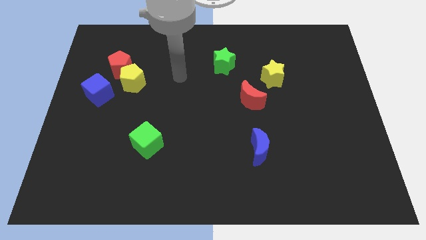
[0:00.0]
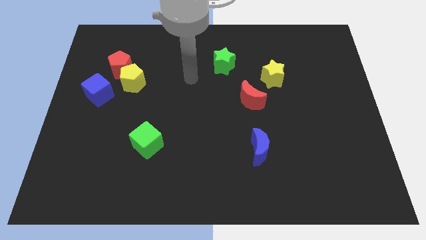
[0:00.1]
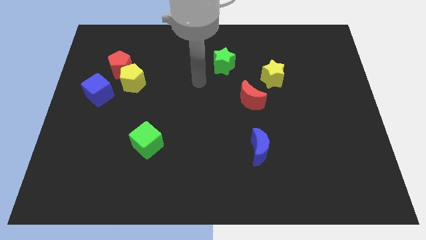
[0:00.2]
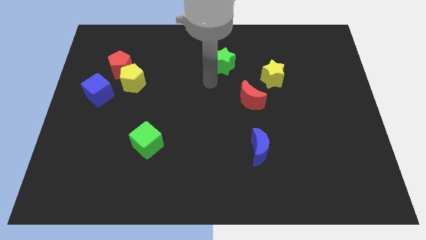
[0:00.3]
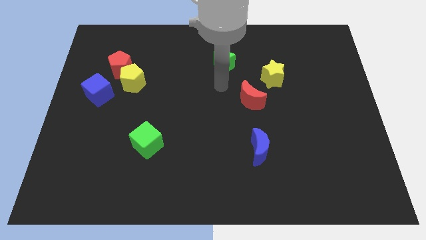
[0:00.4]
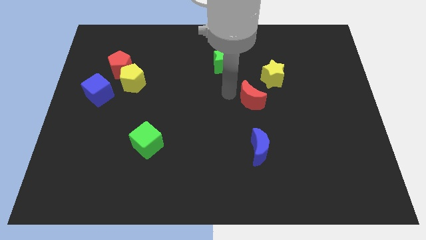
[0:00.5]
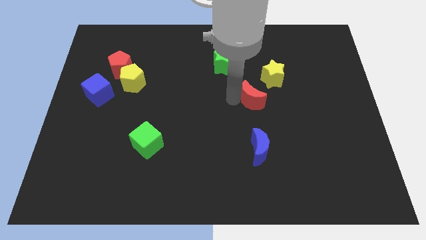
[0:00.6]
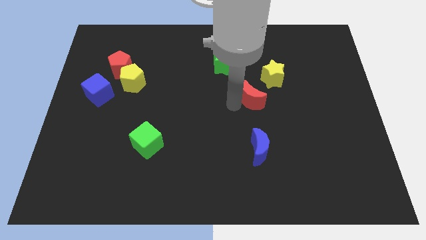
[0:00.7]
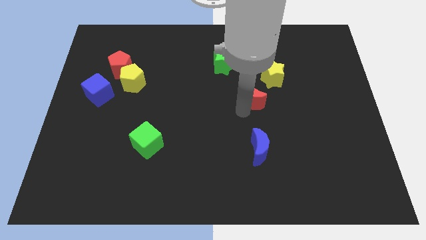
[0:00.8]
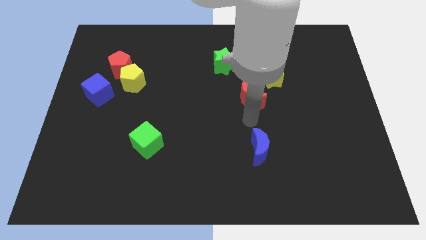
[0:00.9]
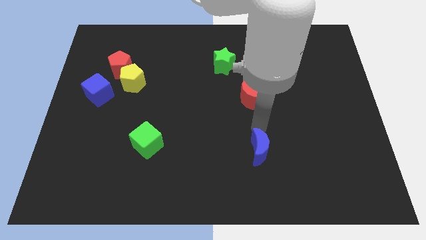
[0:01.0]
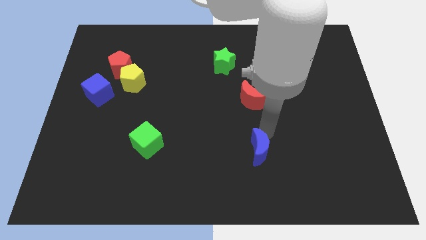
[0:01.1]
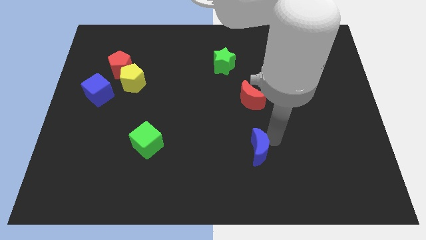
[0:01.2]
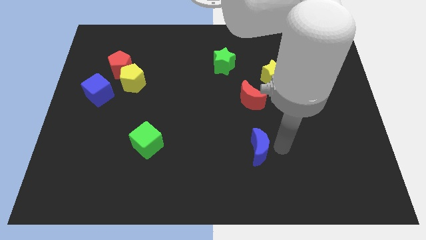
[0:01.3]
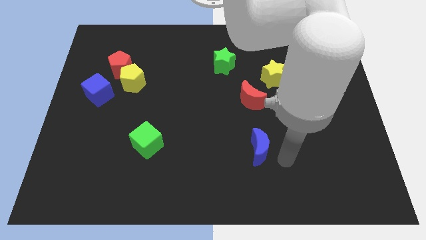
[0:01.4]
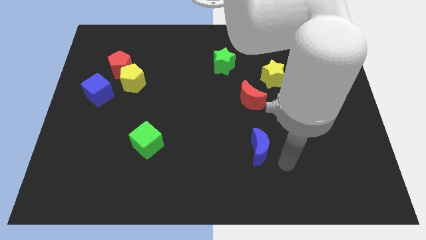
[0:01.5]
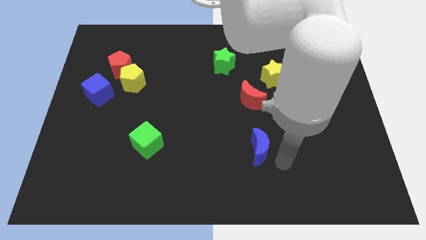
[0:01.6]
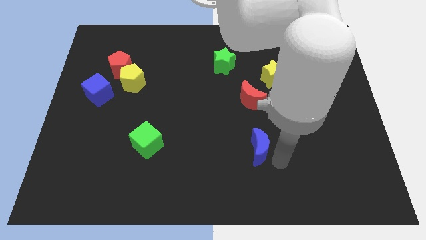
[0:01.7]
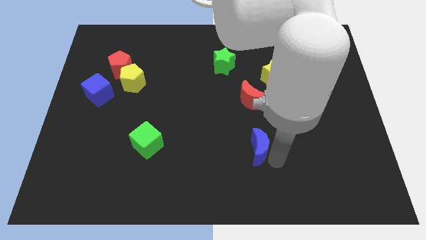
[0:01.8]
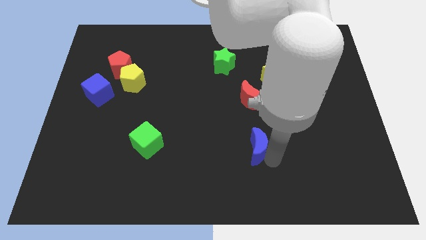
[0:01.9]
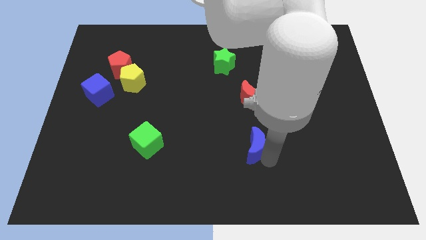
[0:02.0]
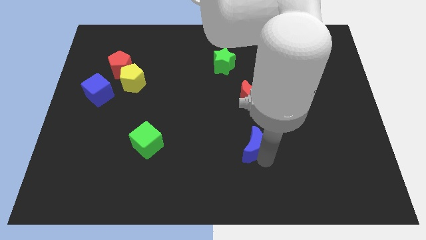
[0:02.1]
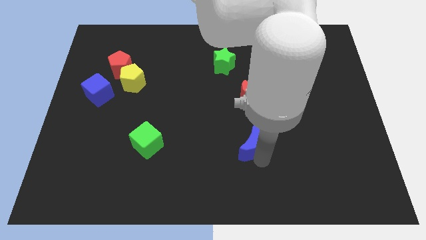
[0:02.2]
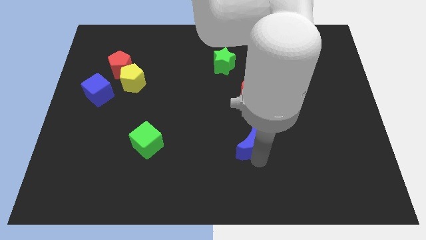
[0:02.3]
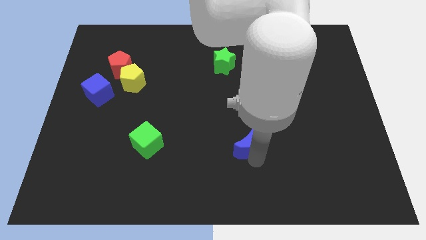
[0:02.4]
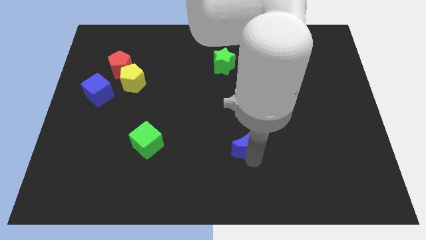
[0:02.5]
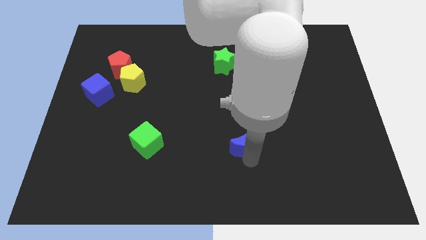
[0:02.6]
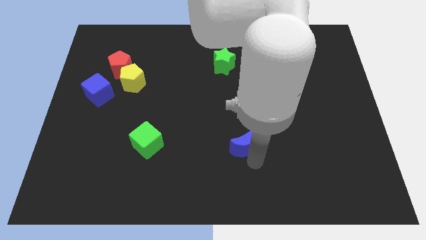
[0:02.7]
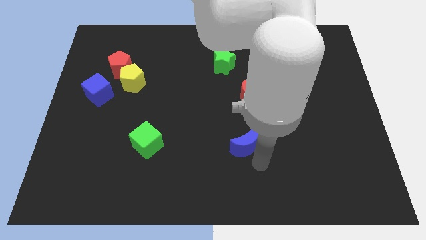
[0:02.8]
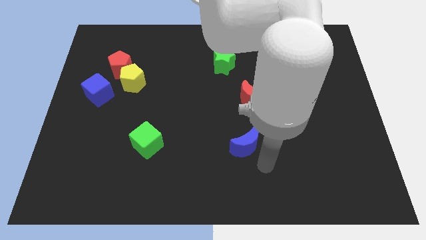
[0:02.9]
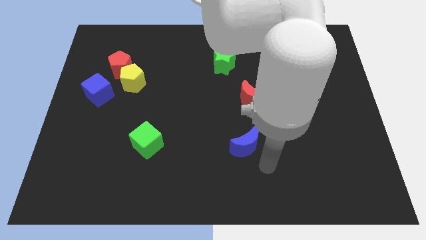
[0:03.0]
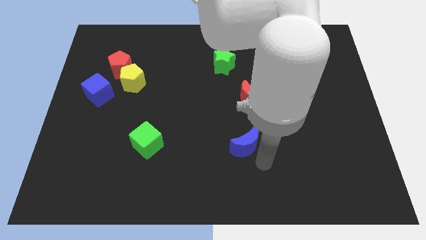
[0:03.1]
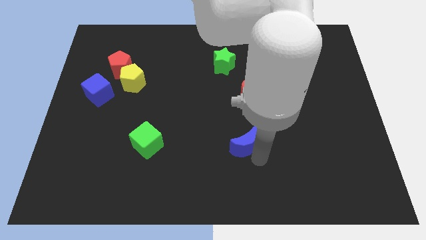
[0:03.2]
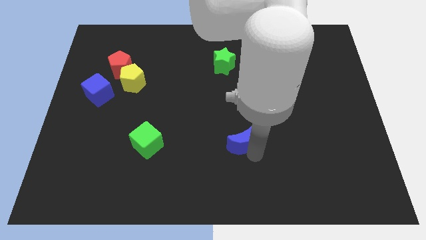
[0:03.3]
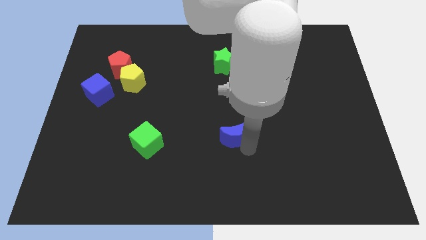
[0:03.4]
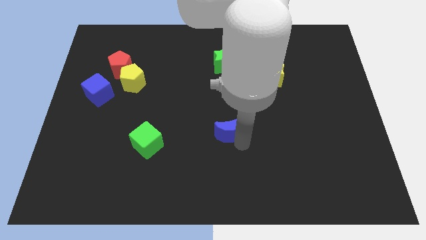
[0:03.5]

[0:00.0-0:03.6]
slide the blue moon slightly upwards and to the left diagonally

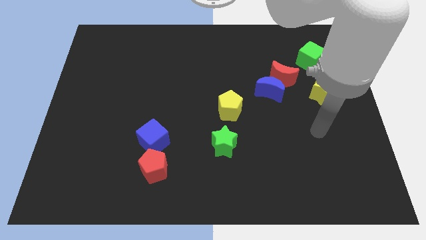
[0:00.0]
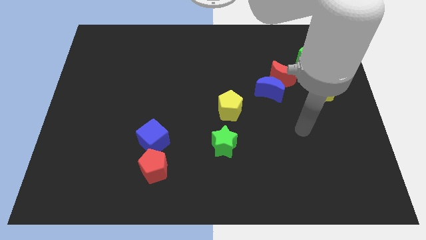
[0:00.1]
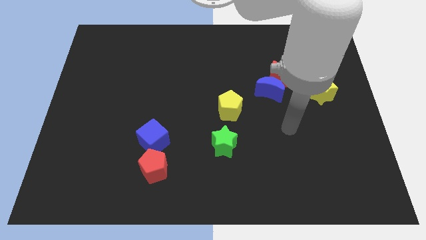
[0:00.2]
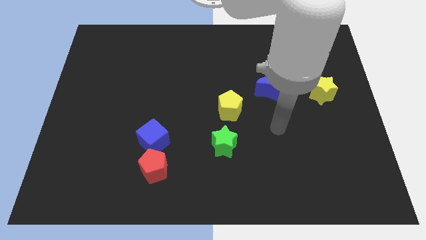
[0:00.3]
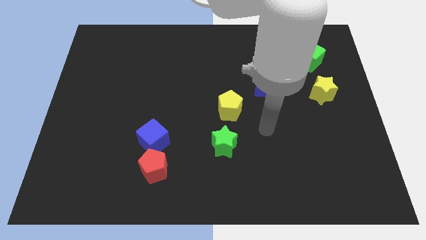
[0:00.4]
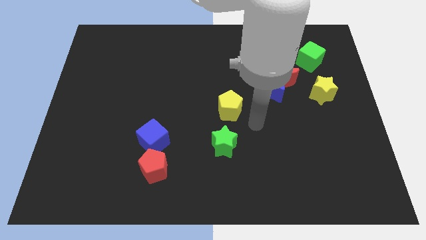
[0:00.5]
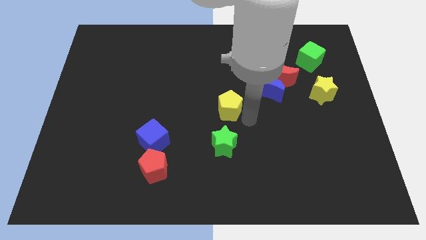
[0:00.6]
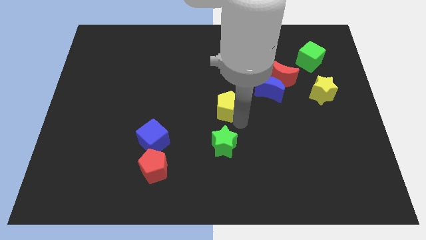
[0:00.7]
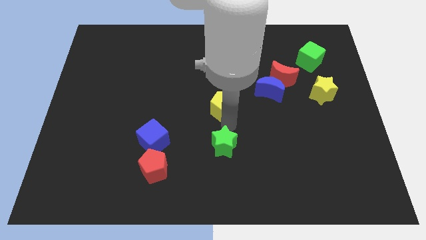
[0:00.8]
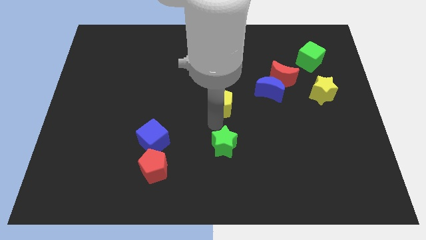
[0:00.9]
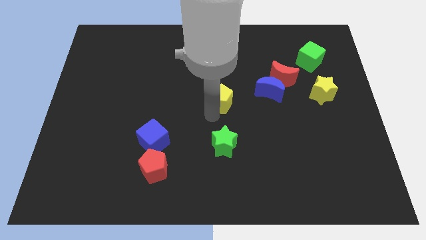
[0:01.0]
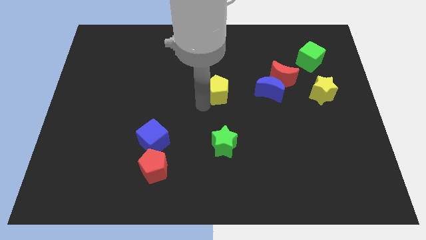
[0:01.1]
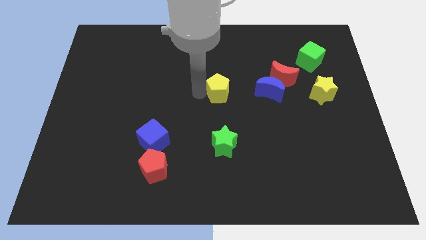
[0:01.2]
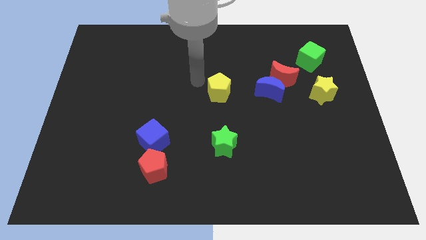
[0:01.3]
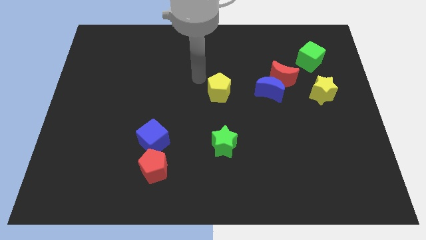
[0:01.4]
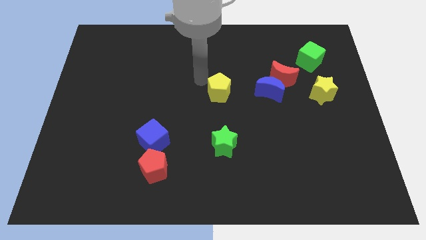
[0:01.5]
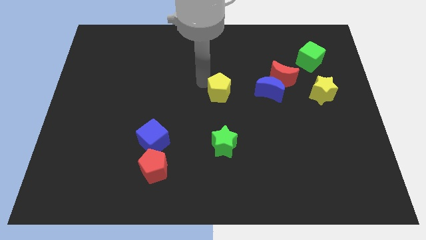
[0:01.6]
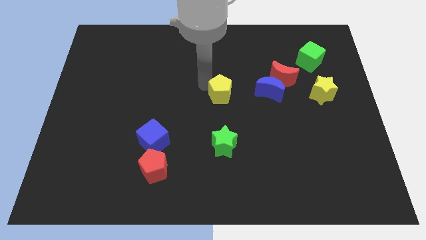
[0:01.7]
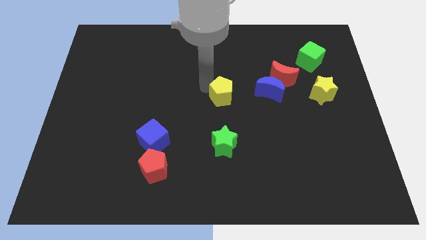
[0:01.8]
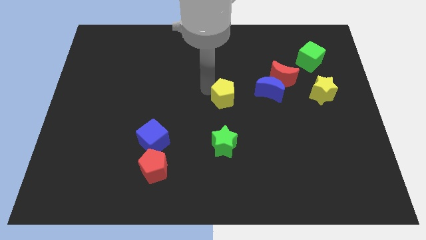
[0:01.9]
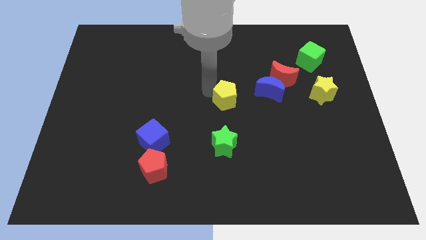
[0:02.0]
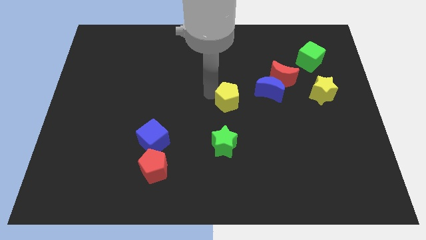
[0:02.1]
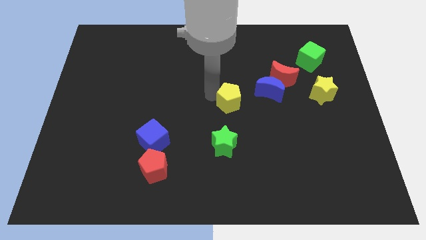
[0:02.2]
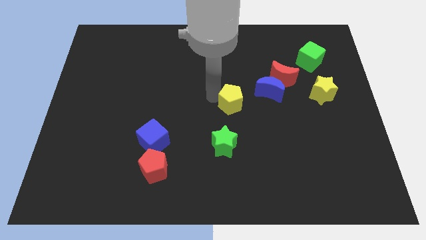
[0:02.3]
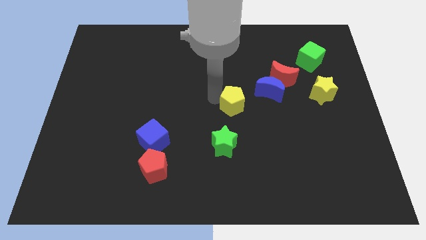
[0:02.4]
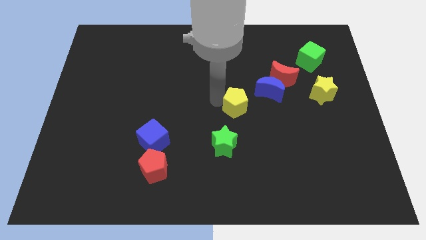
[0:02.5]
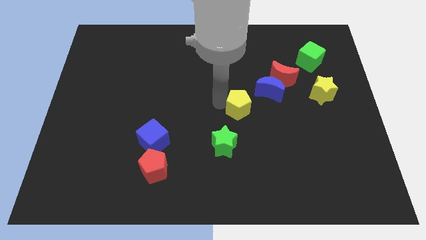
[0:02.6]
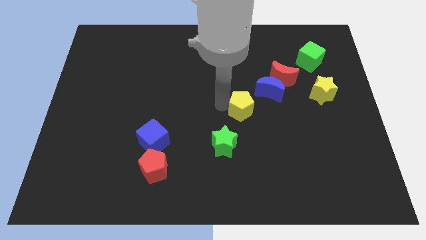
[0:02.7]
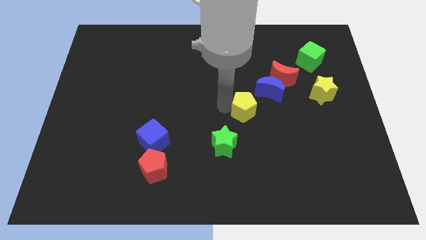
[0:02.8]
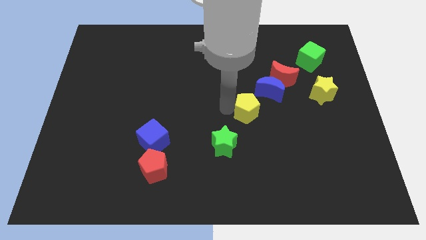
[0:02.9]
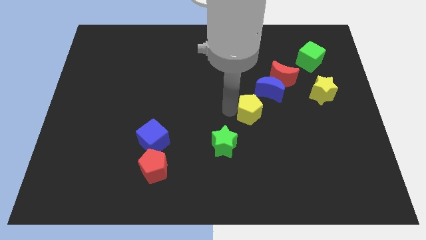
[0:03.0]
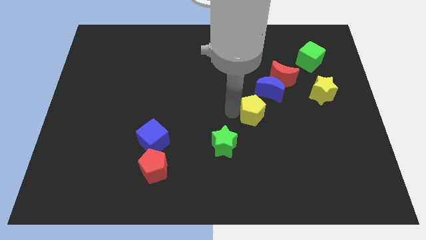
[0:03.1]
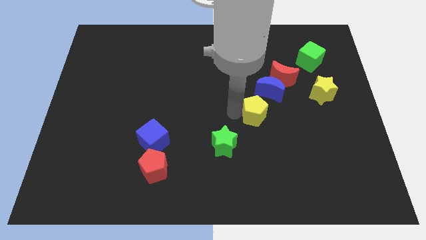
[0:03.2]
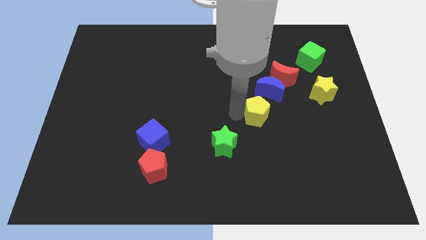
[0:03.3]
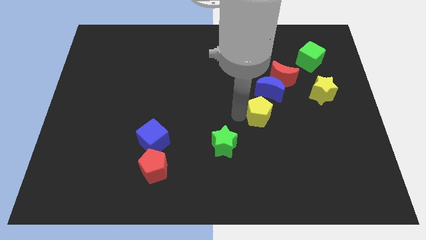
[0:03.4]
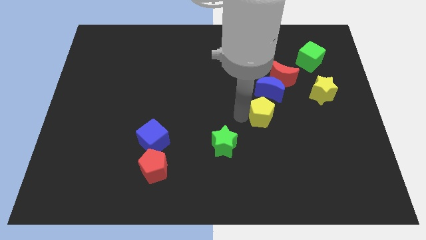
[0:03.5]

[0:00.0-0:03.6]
slide the yellow pentagon a little bit right

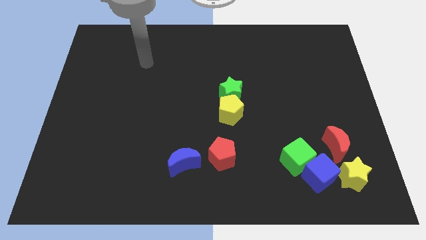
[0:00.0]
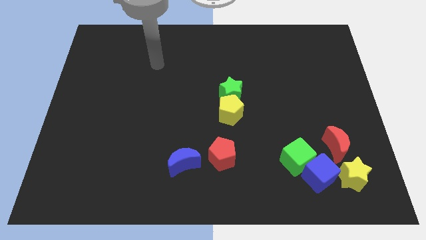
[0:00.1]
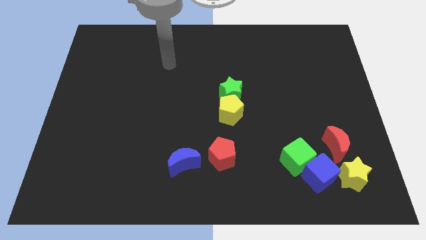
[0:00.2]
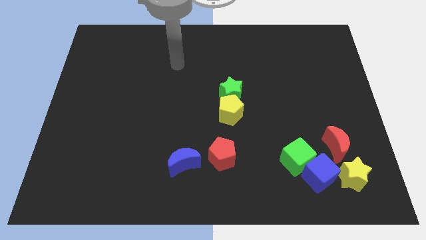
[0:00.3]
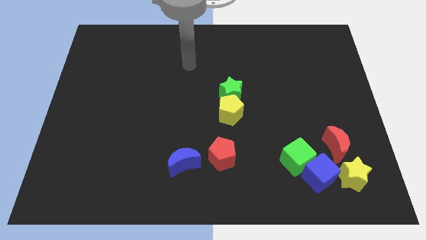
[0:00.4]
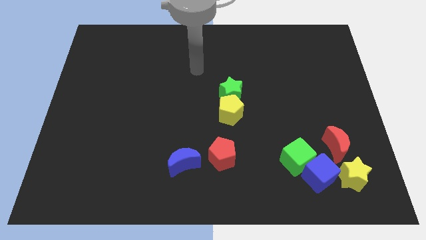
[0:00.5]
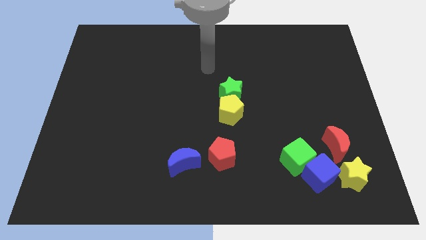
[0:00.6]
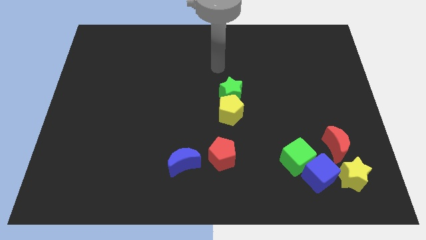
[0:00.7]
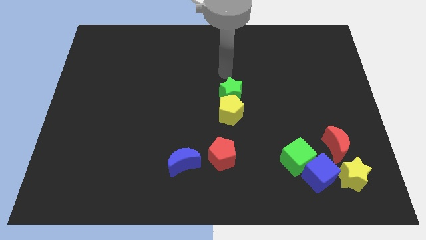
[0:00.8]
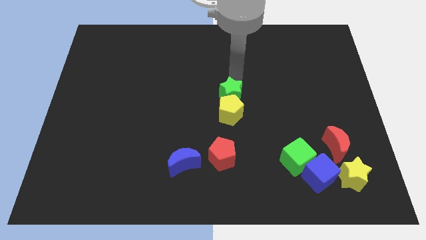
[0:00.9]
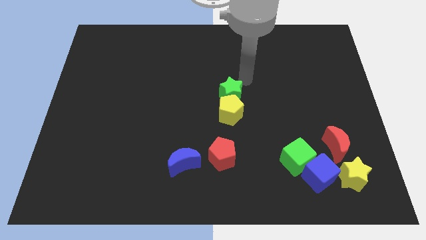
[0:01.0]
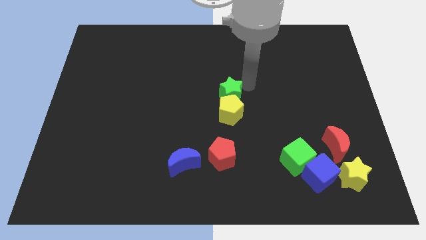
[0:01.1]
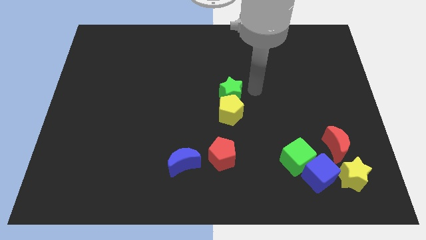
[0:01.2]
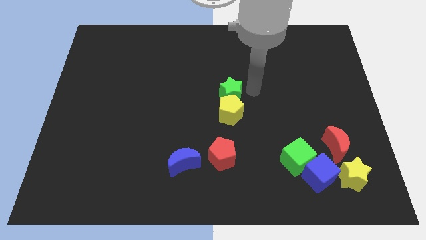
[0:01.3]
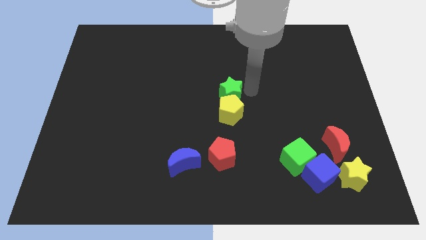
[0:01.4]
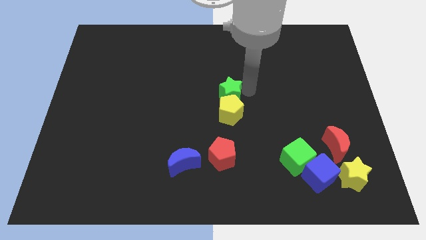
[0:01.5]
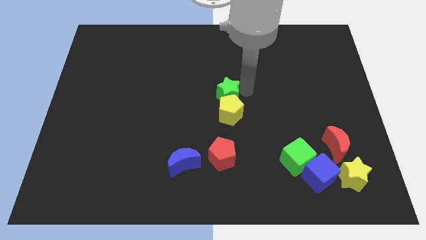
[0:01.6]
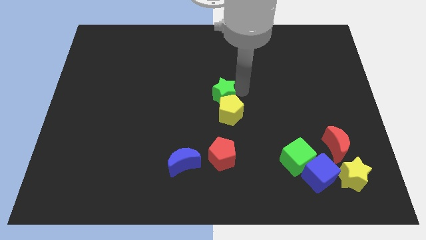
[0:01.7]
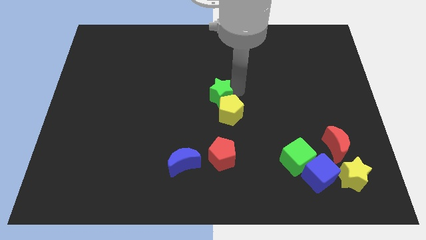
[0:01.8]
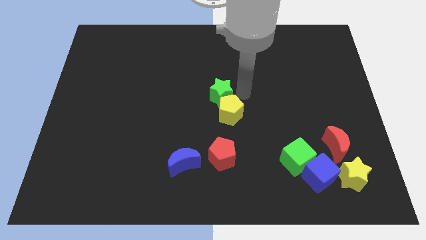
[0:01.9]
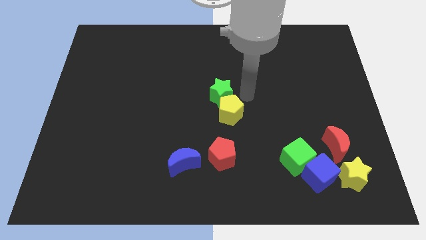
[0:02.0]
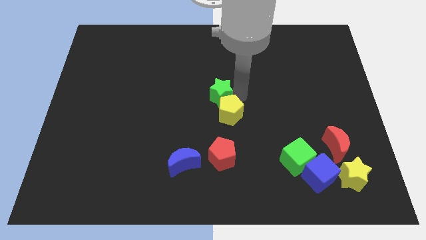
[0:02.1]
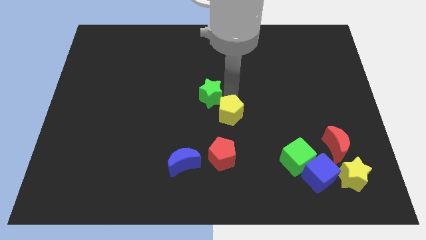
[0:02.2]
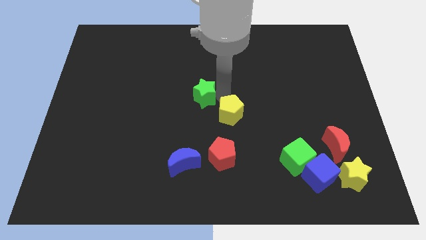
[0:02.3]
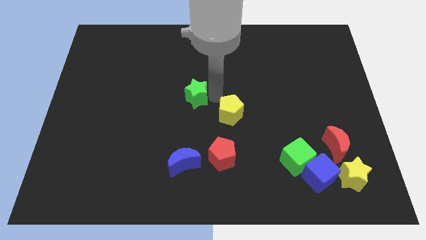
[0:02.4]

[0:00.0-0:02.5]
move the green star somewhat to the left
